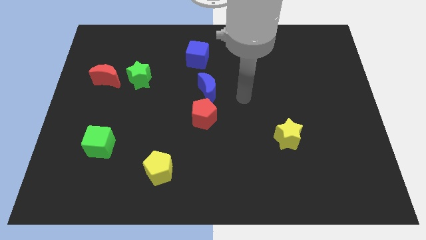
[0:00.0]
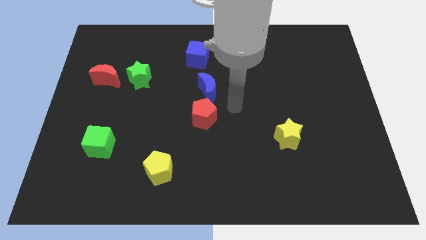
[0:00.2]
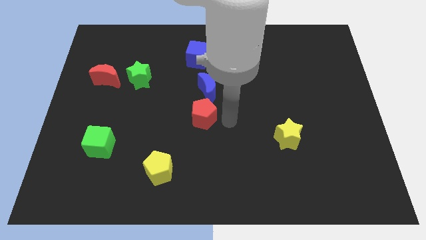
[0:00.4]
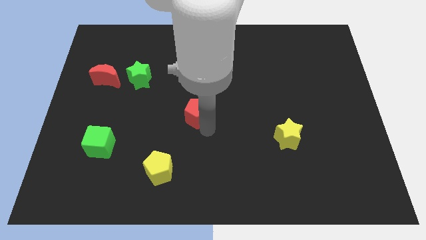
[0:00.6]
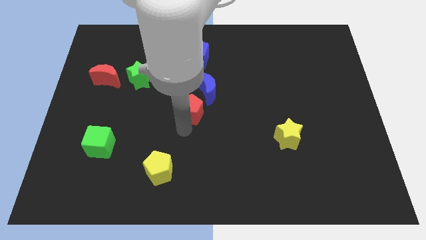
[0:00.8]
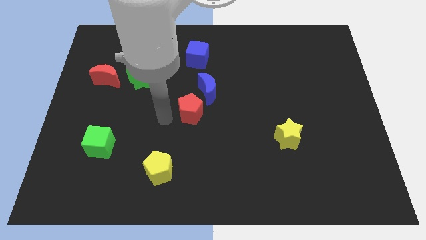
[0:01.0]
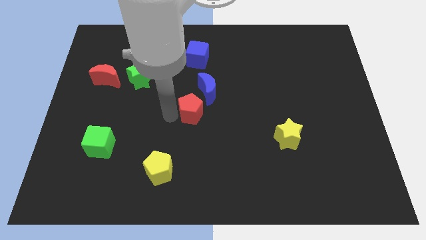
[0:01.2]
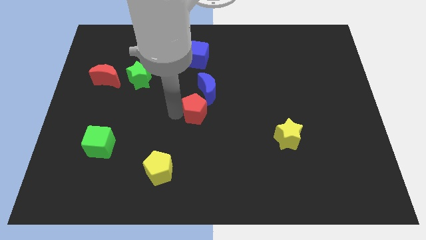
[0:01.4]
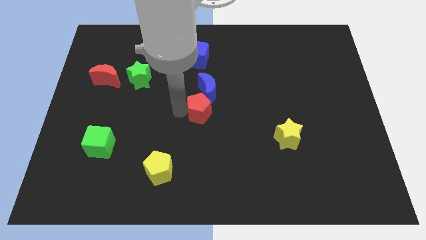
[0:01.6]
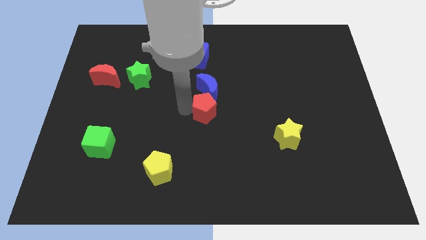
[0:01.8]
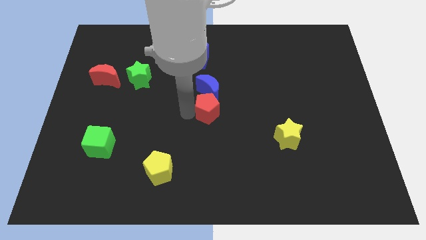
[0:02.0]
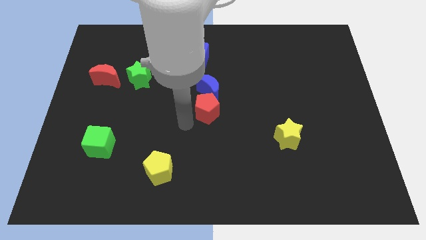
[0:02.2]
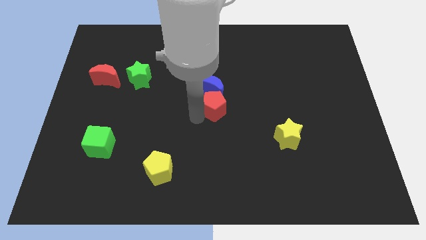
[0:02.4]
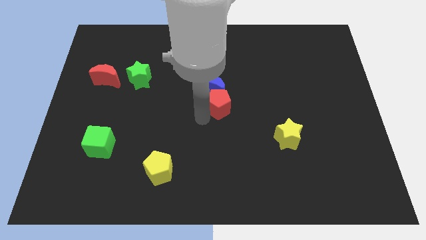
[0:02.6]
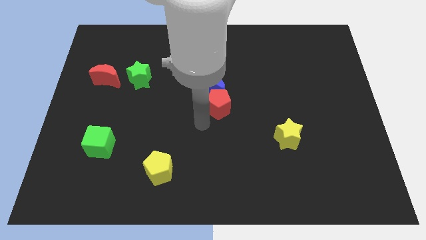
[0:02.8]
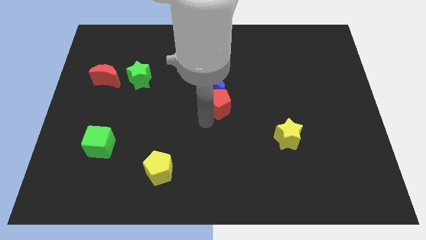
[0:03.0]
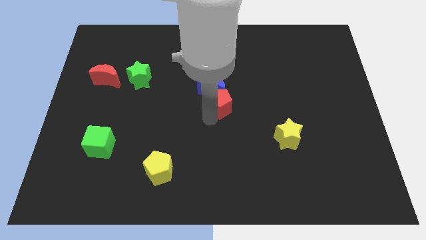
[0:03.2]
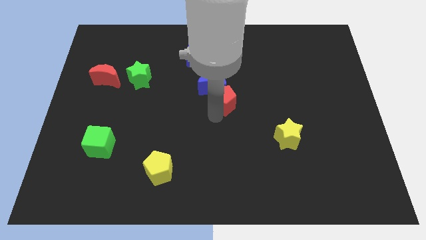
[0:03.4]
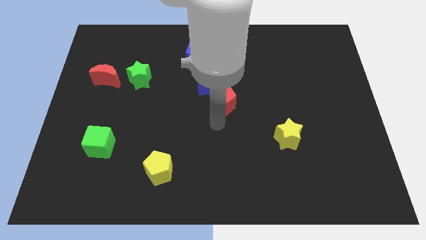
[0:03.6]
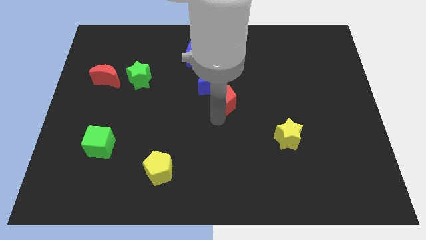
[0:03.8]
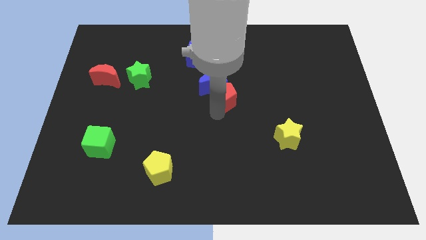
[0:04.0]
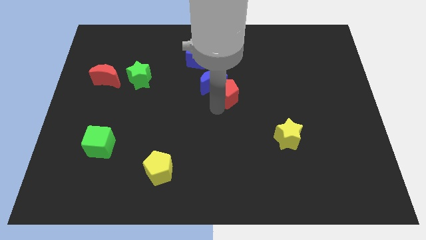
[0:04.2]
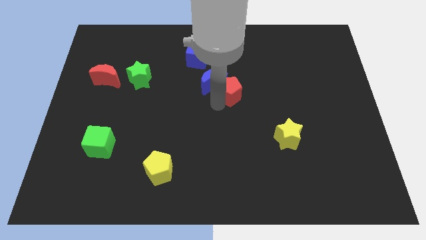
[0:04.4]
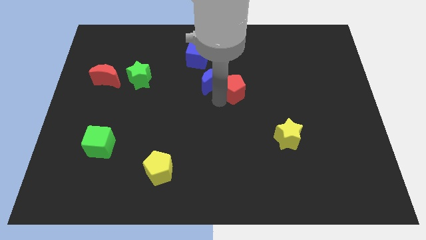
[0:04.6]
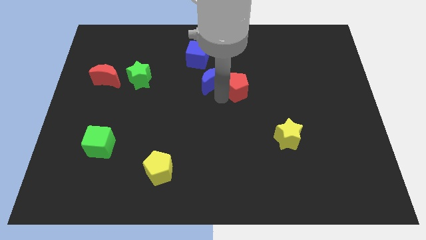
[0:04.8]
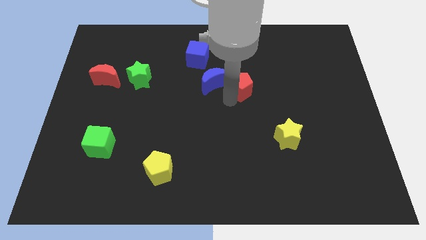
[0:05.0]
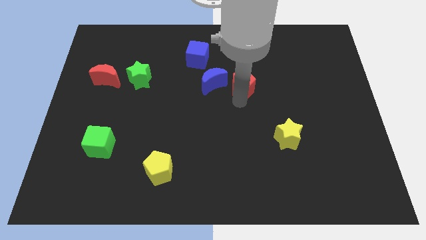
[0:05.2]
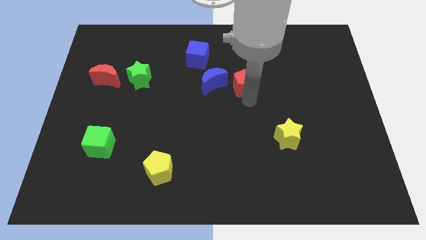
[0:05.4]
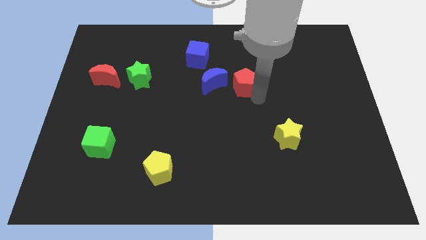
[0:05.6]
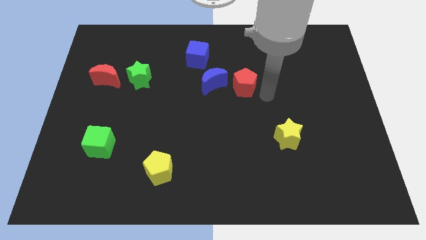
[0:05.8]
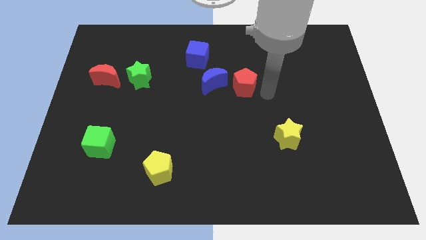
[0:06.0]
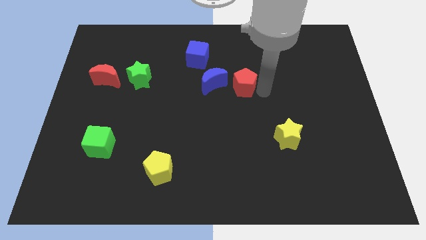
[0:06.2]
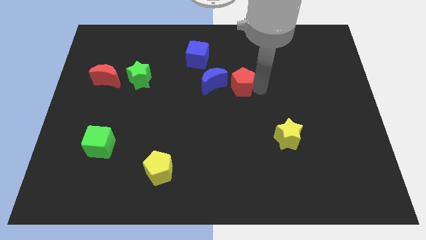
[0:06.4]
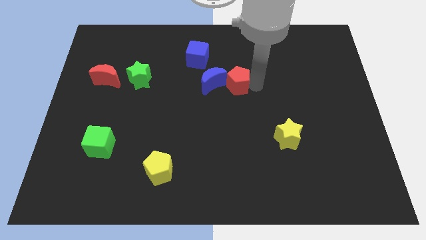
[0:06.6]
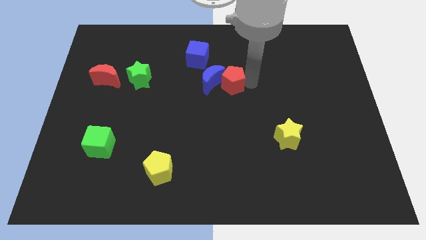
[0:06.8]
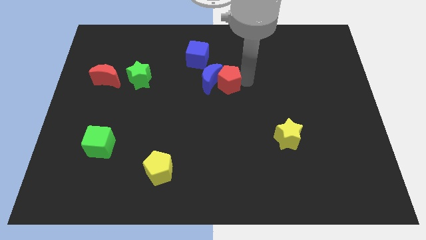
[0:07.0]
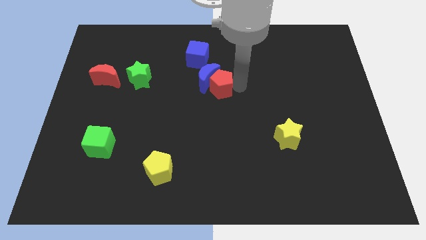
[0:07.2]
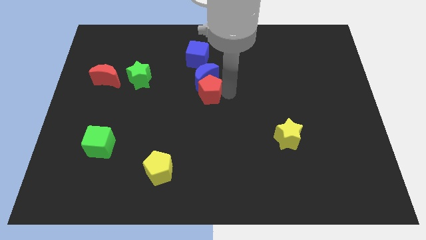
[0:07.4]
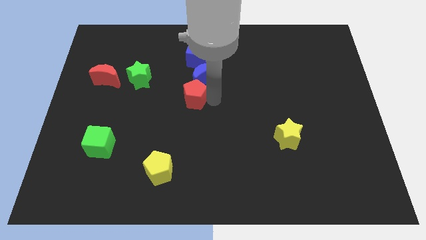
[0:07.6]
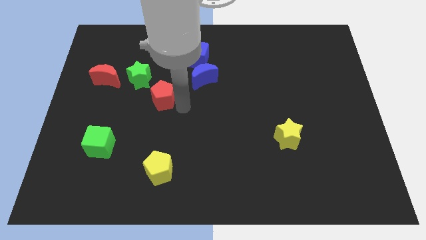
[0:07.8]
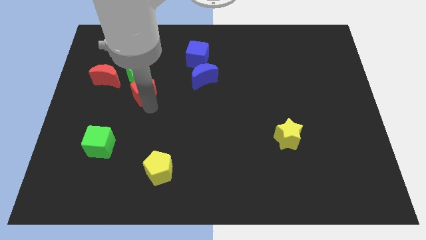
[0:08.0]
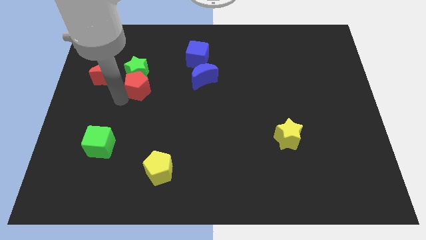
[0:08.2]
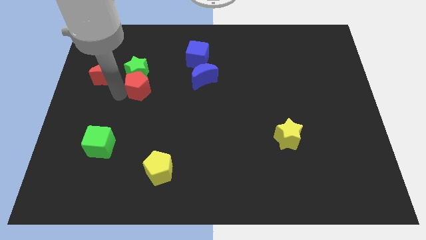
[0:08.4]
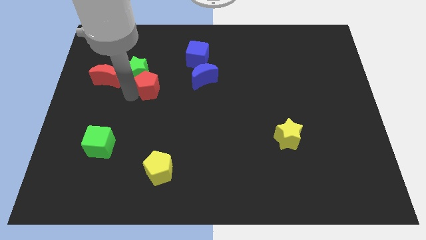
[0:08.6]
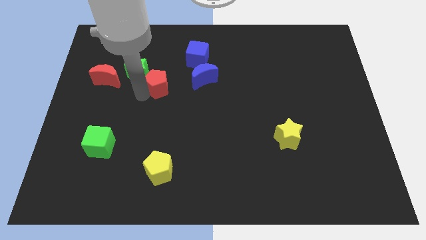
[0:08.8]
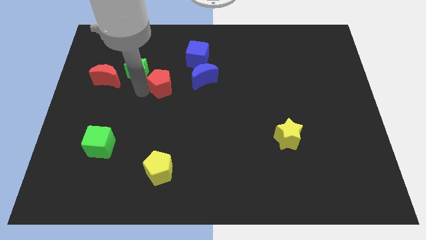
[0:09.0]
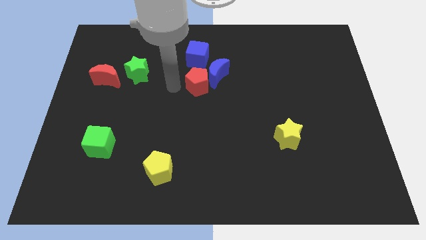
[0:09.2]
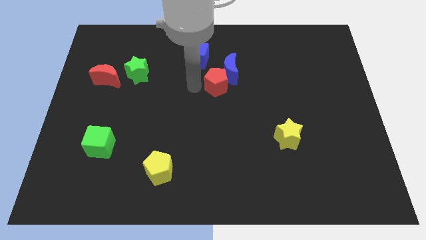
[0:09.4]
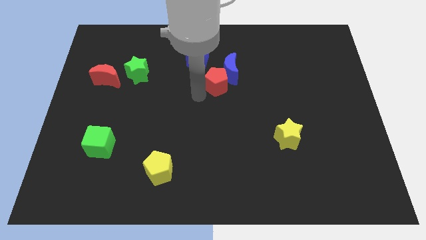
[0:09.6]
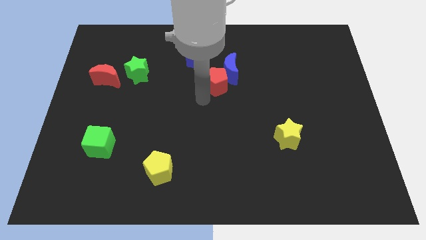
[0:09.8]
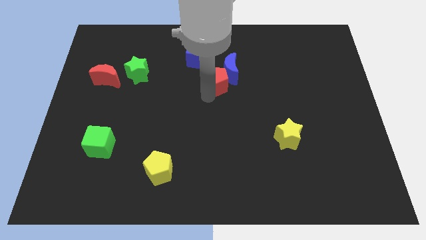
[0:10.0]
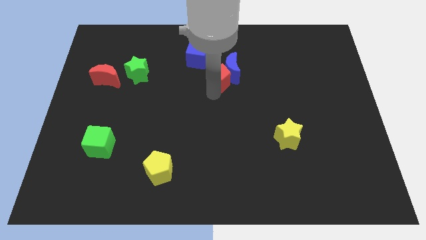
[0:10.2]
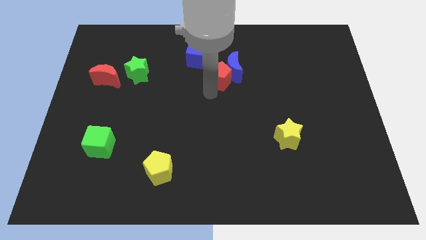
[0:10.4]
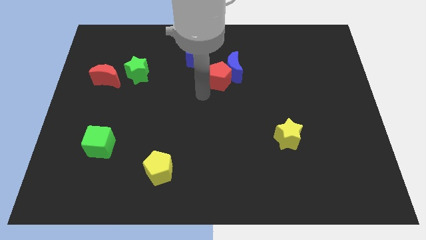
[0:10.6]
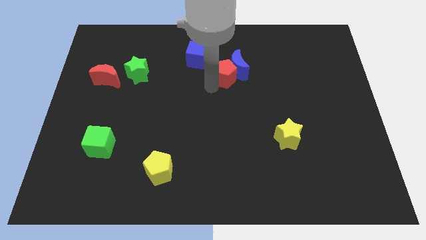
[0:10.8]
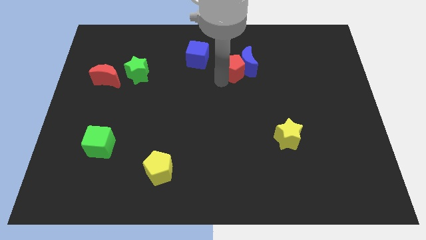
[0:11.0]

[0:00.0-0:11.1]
put the red pentagon to the right side of the blue cube
